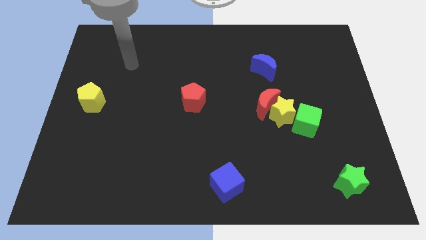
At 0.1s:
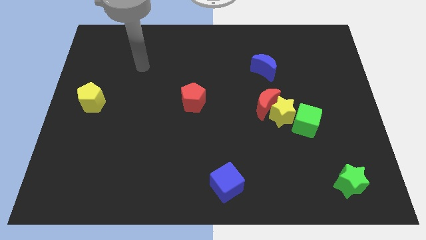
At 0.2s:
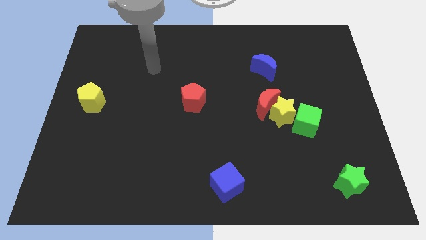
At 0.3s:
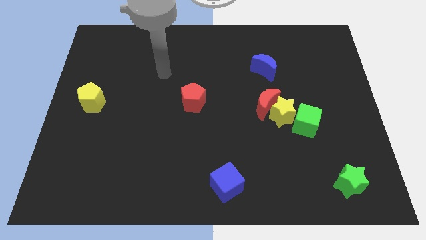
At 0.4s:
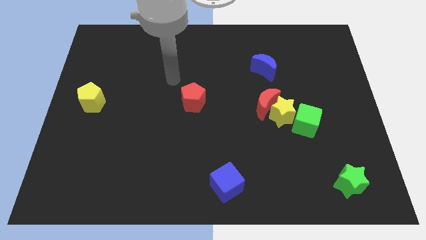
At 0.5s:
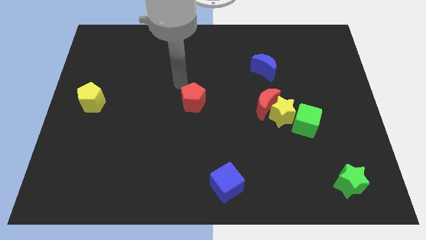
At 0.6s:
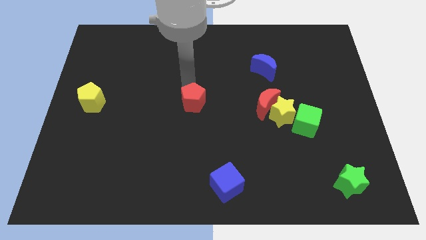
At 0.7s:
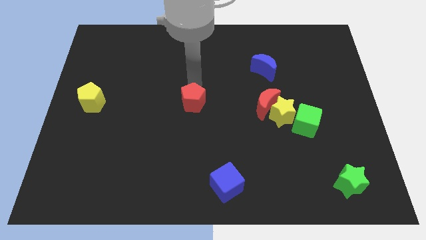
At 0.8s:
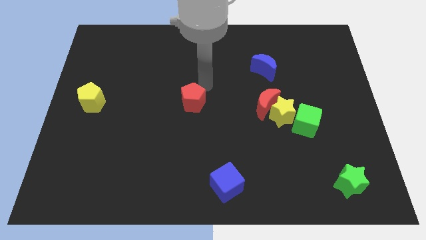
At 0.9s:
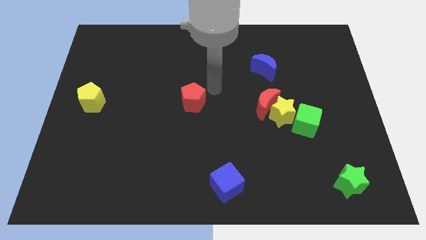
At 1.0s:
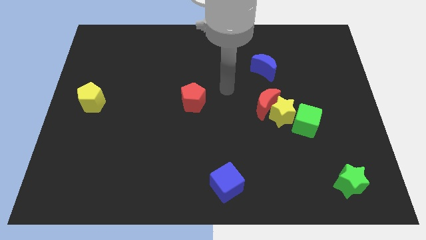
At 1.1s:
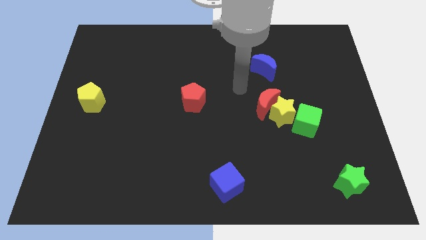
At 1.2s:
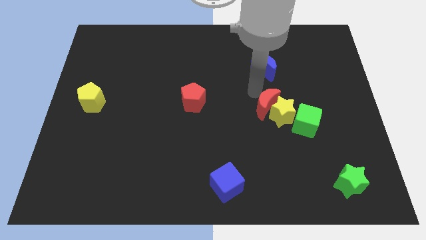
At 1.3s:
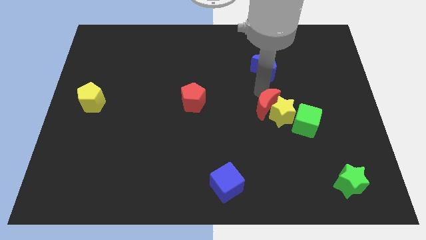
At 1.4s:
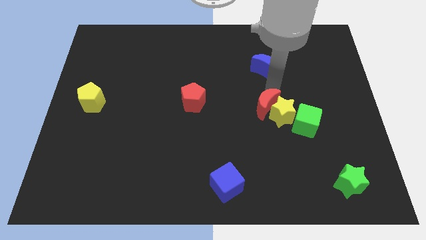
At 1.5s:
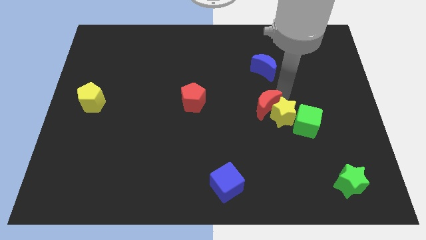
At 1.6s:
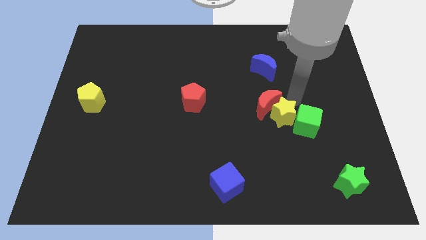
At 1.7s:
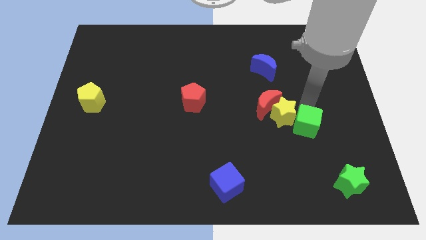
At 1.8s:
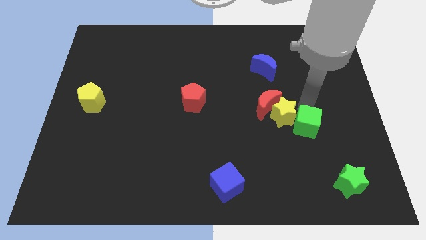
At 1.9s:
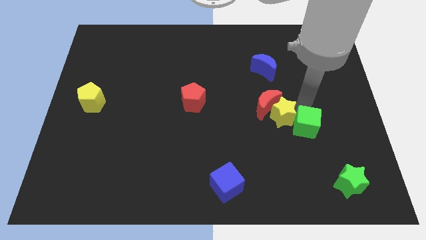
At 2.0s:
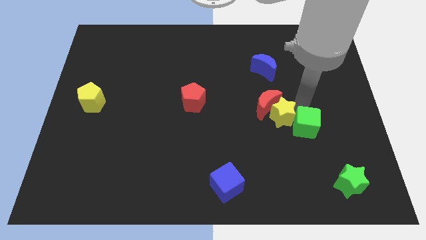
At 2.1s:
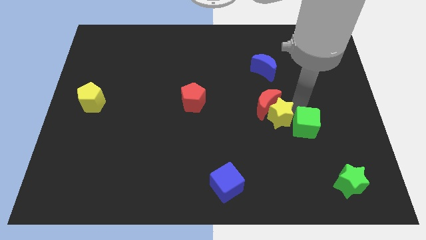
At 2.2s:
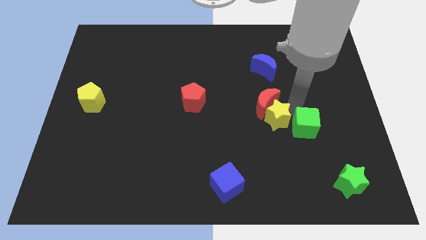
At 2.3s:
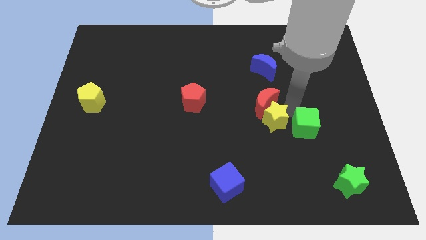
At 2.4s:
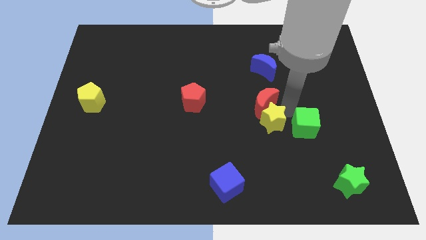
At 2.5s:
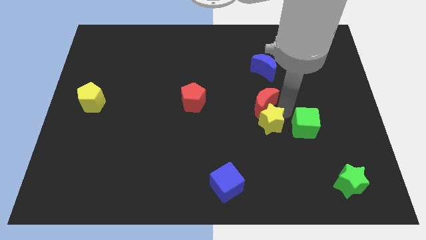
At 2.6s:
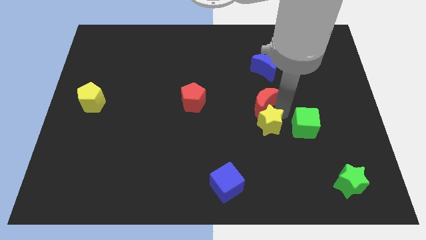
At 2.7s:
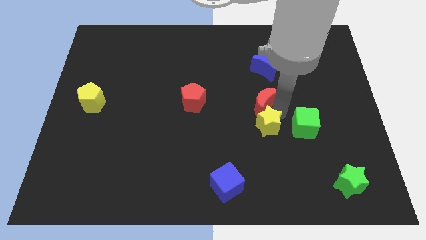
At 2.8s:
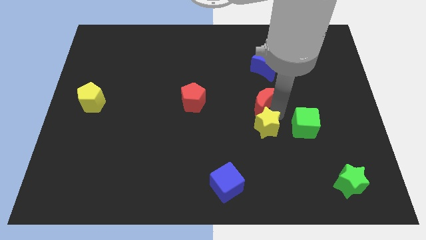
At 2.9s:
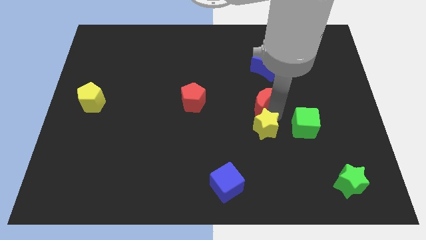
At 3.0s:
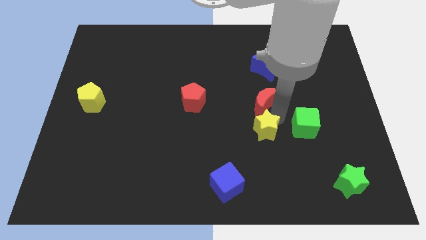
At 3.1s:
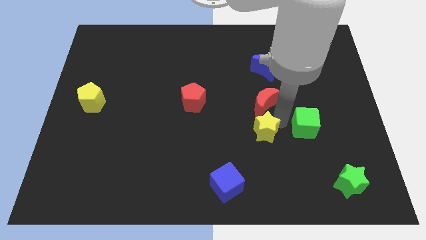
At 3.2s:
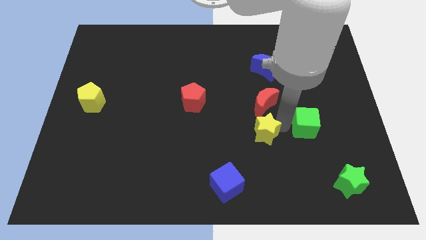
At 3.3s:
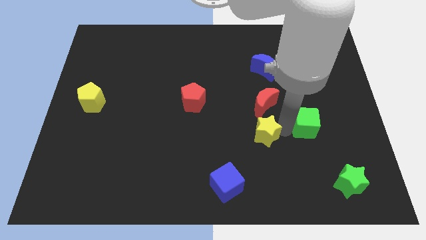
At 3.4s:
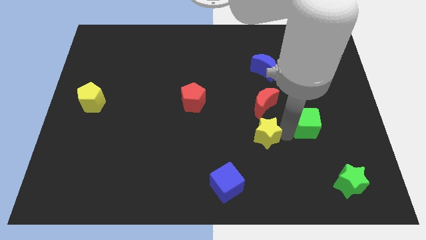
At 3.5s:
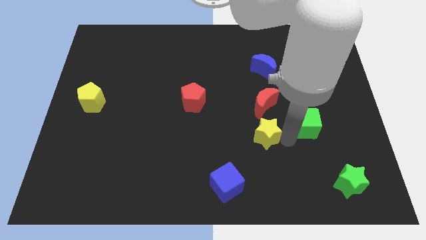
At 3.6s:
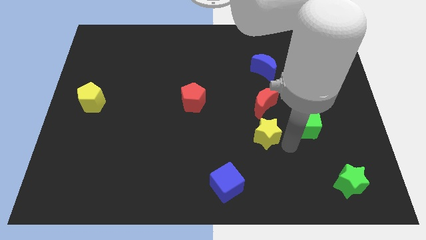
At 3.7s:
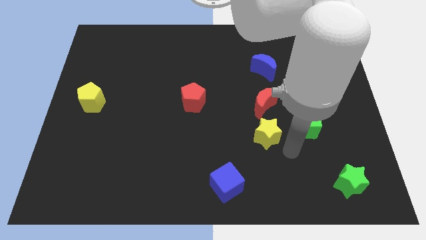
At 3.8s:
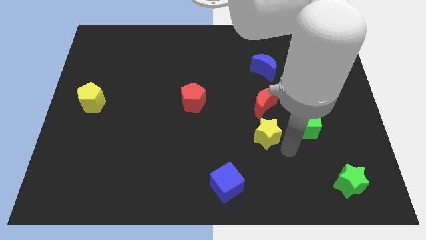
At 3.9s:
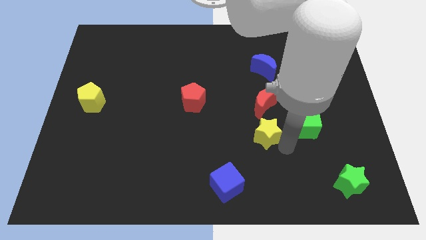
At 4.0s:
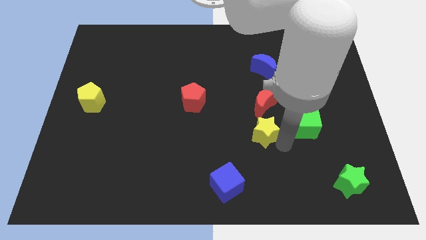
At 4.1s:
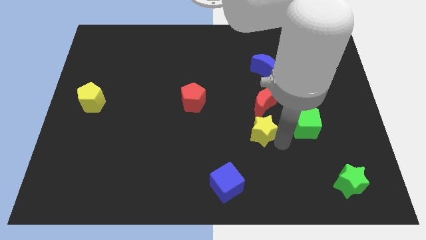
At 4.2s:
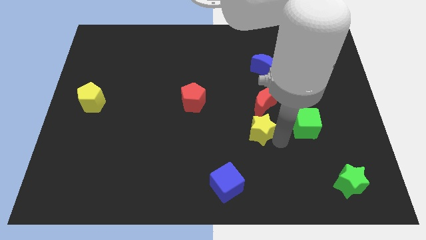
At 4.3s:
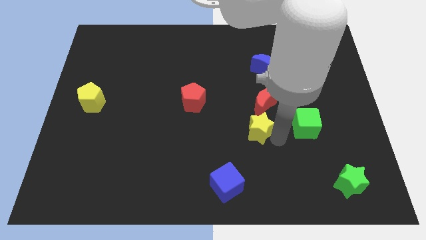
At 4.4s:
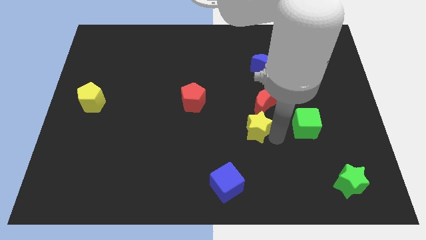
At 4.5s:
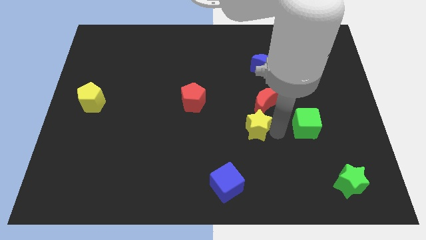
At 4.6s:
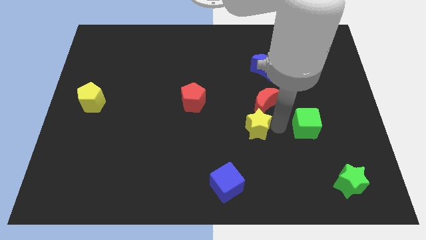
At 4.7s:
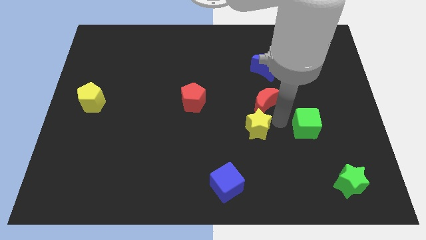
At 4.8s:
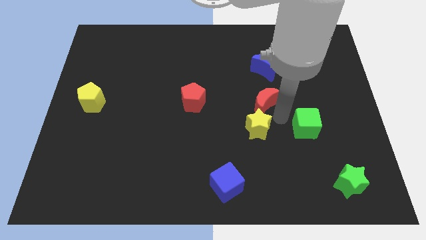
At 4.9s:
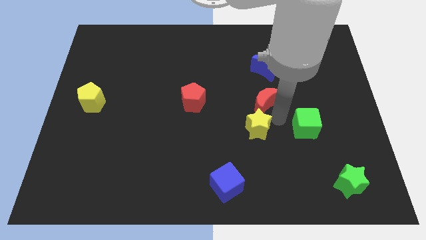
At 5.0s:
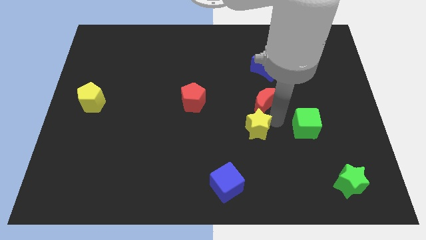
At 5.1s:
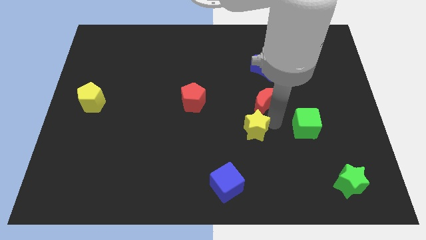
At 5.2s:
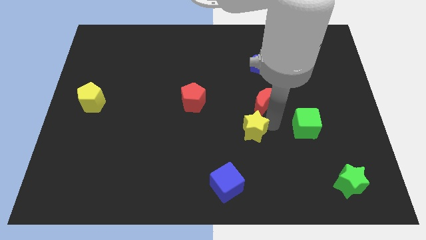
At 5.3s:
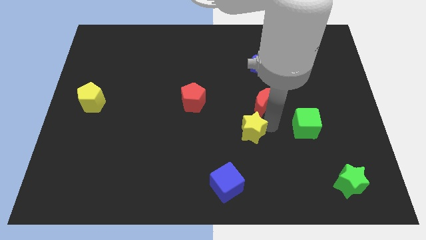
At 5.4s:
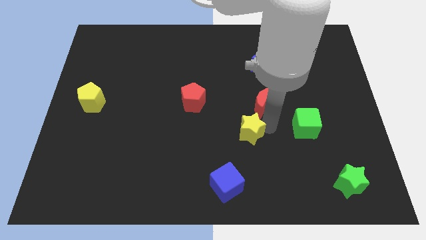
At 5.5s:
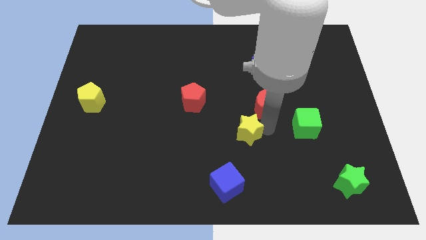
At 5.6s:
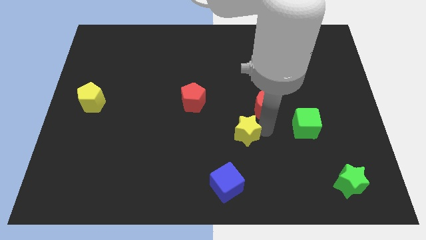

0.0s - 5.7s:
move the yellow star away from the red moon and green cube

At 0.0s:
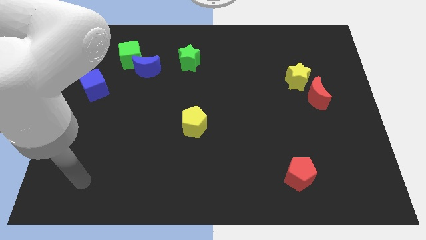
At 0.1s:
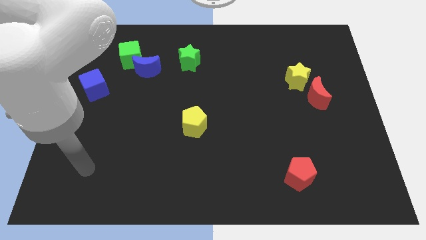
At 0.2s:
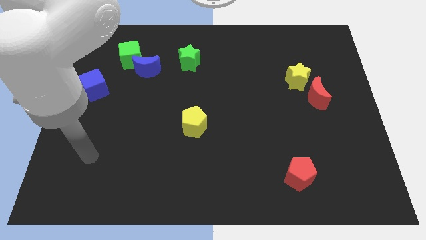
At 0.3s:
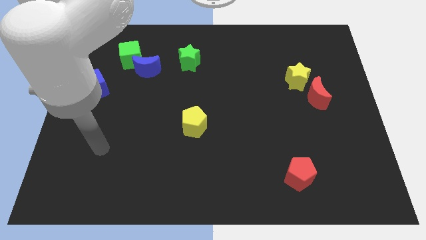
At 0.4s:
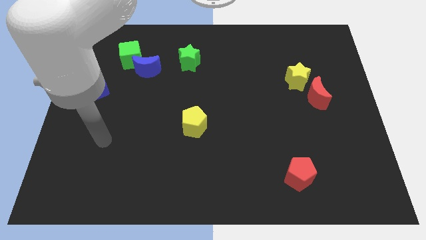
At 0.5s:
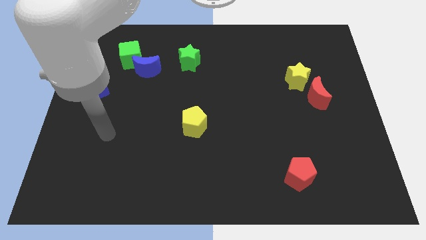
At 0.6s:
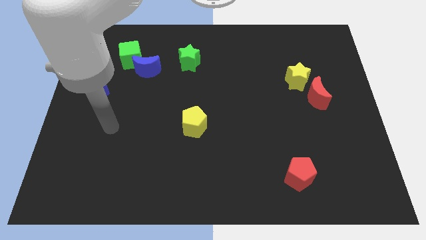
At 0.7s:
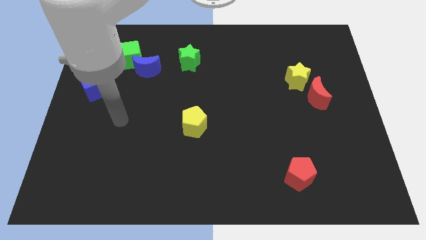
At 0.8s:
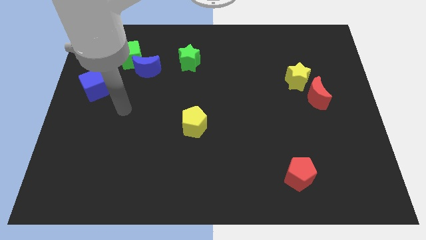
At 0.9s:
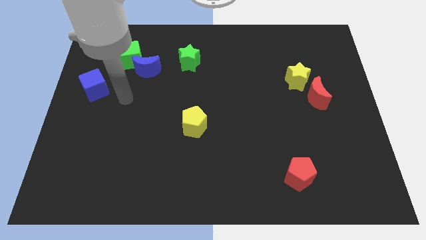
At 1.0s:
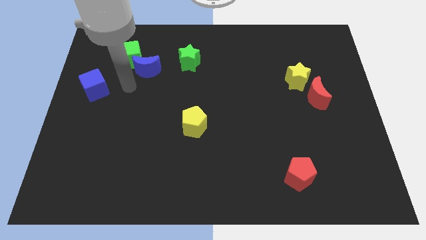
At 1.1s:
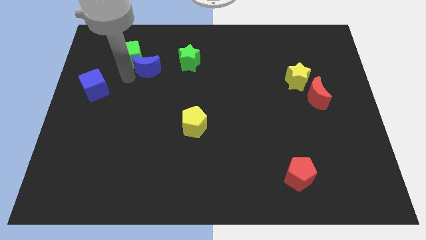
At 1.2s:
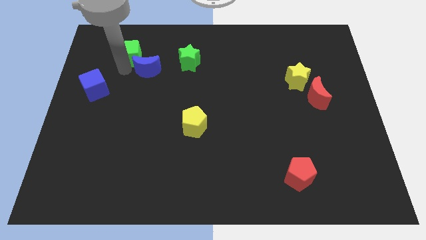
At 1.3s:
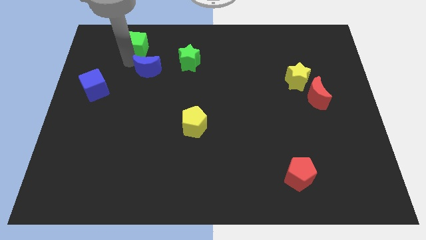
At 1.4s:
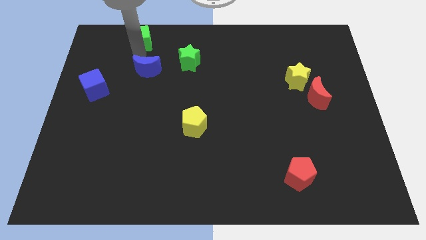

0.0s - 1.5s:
pull the blue moon apart from the green cube

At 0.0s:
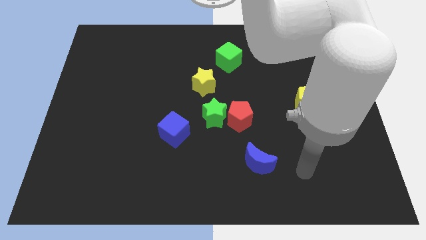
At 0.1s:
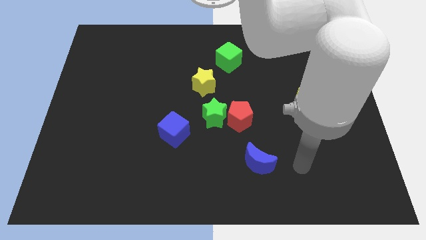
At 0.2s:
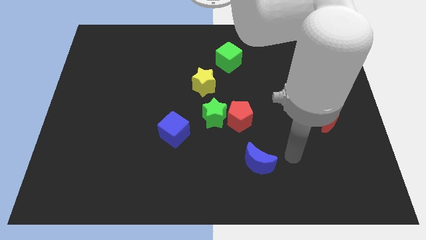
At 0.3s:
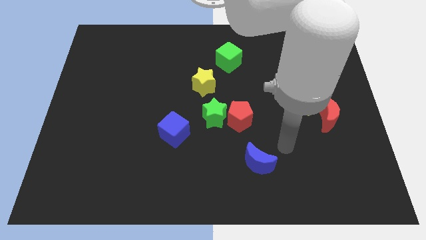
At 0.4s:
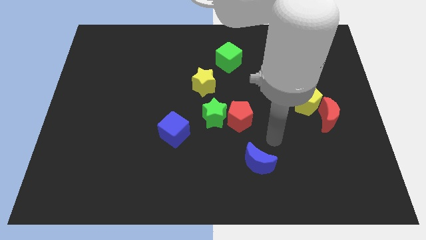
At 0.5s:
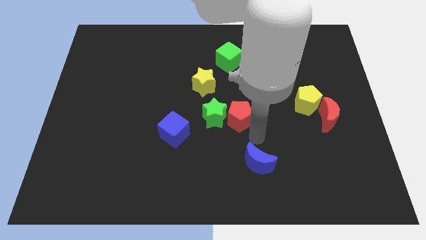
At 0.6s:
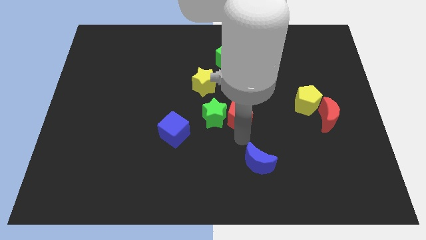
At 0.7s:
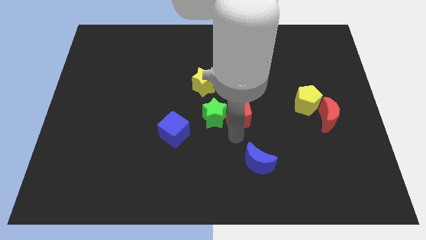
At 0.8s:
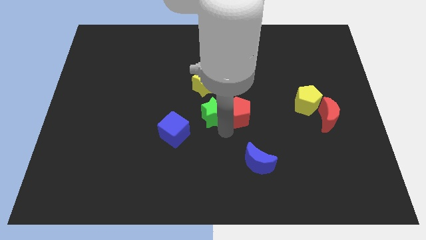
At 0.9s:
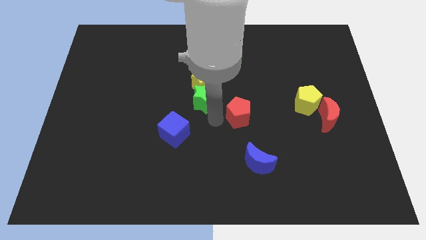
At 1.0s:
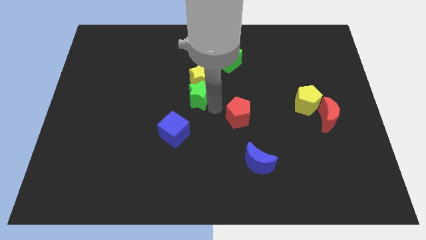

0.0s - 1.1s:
move the red pentagon away from the green star

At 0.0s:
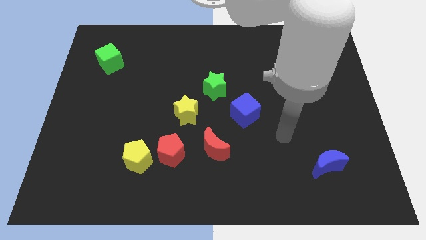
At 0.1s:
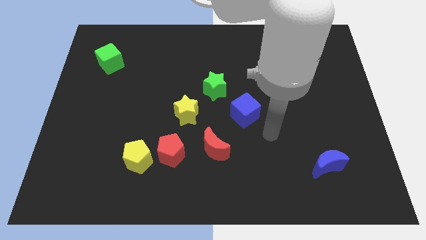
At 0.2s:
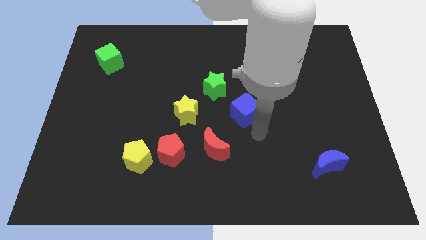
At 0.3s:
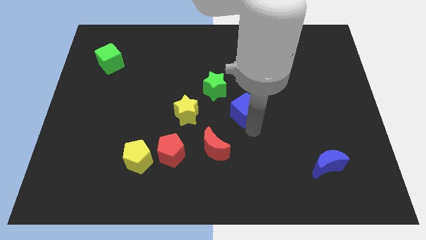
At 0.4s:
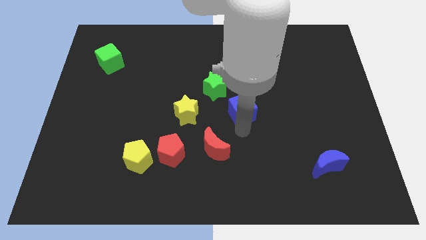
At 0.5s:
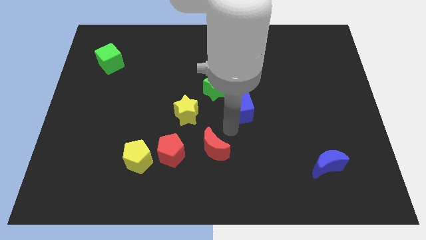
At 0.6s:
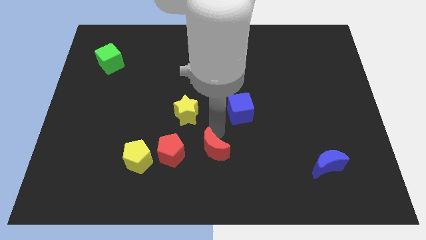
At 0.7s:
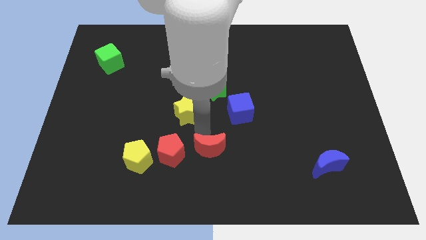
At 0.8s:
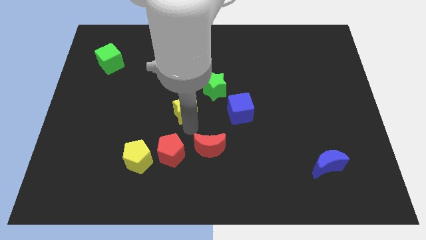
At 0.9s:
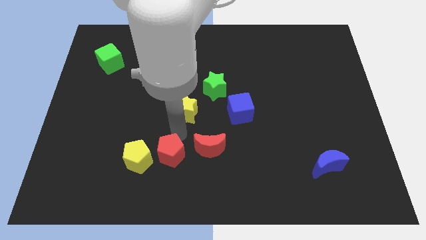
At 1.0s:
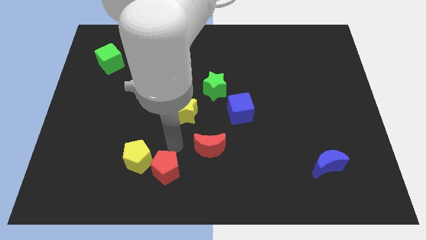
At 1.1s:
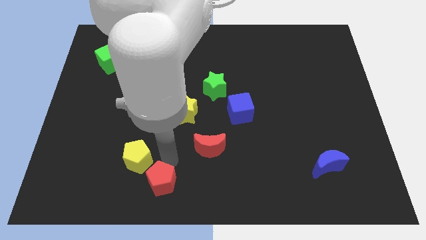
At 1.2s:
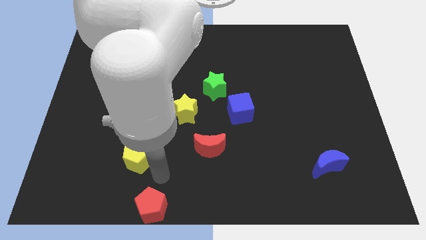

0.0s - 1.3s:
move the yellow pentagon away from the red pentagon

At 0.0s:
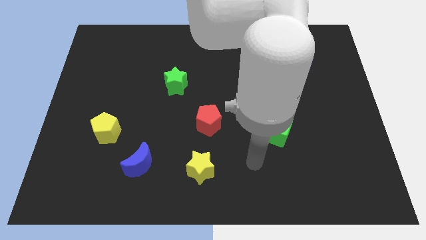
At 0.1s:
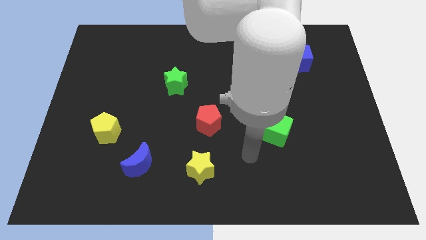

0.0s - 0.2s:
separate the red moon from the blue cube
